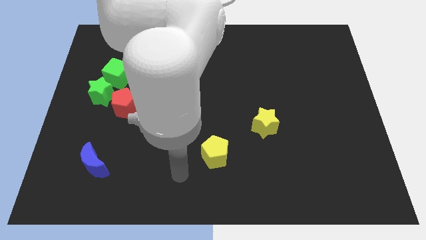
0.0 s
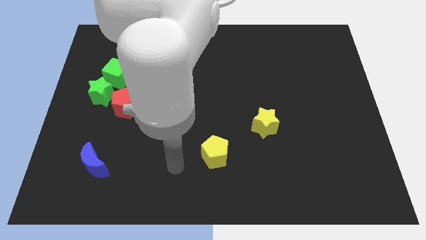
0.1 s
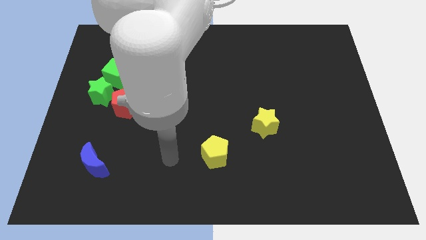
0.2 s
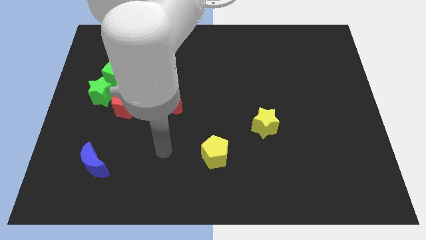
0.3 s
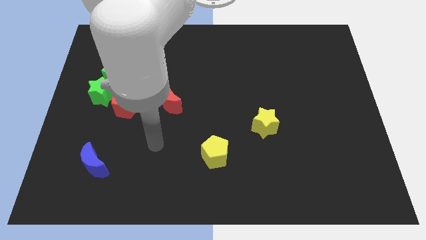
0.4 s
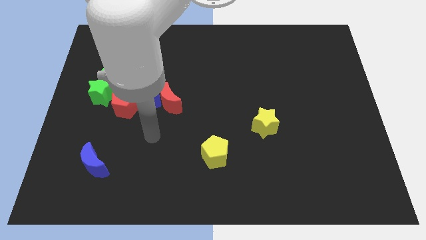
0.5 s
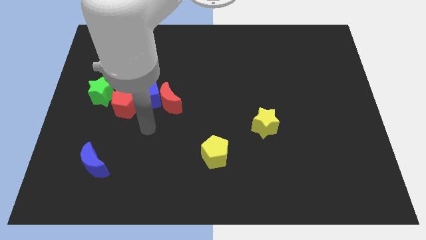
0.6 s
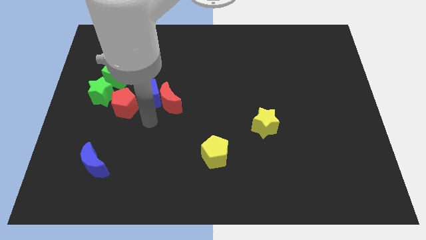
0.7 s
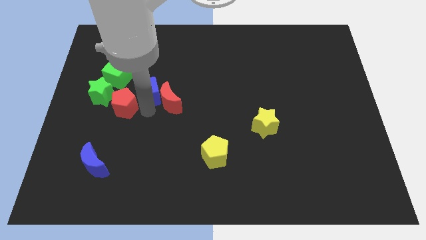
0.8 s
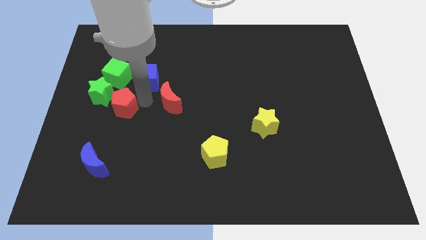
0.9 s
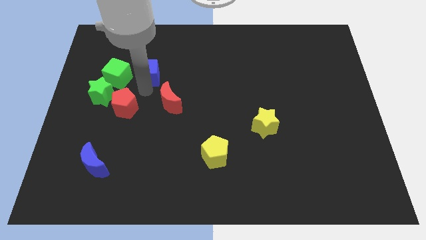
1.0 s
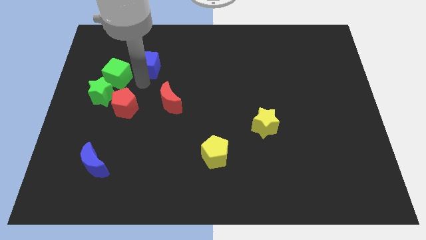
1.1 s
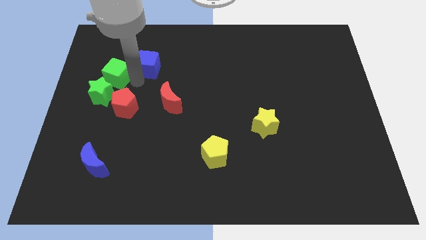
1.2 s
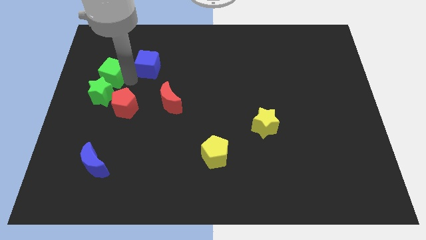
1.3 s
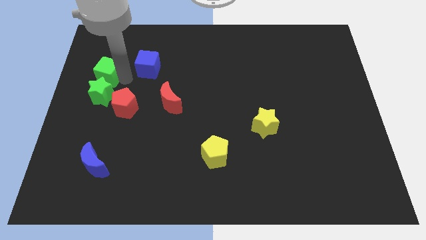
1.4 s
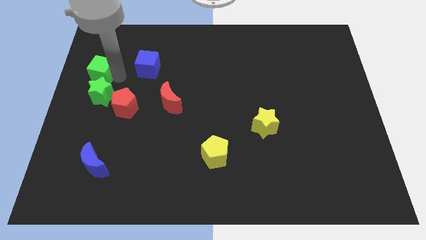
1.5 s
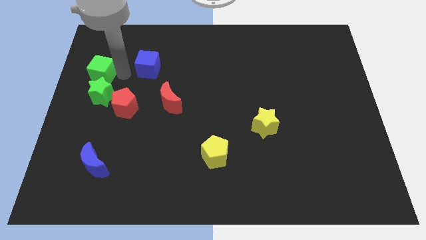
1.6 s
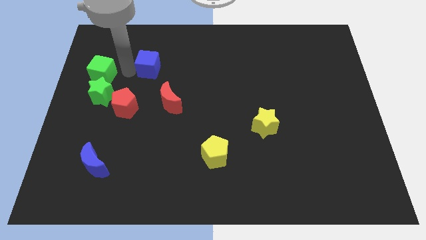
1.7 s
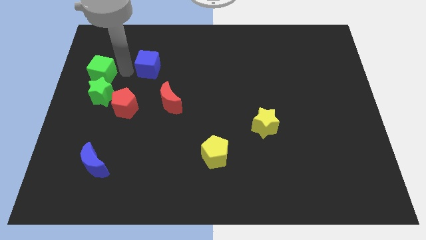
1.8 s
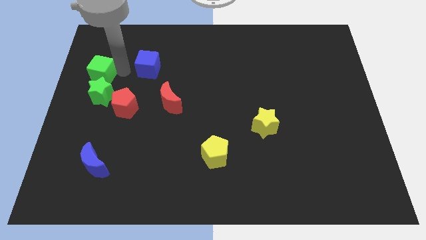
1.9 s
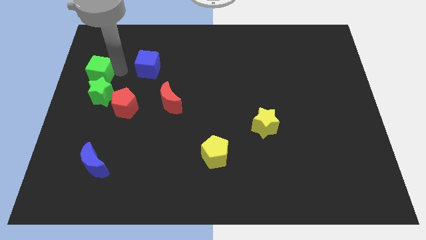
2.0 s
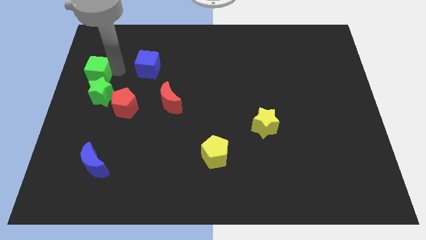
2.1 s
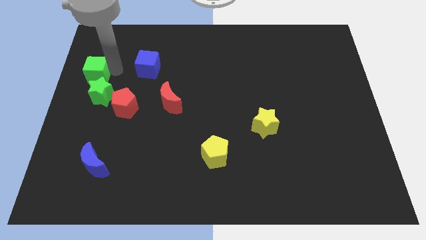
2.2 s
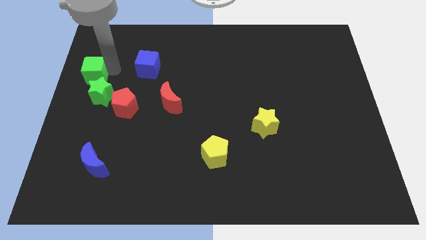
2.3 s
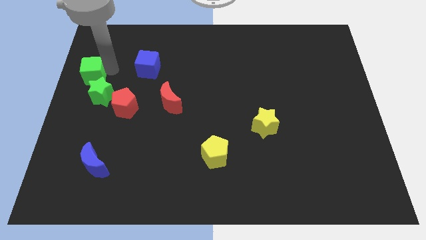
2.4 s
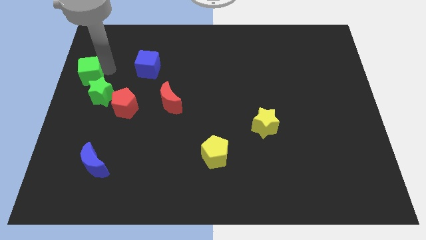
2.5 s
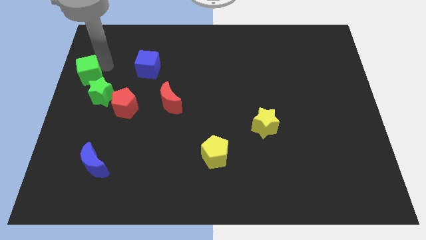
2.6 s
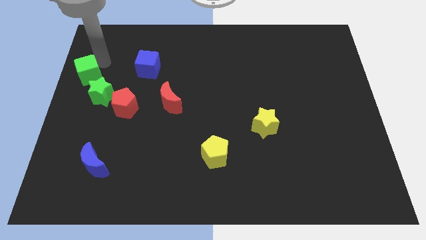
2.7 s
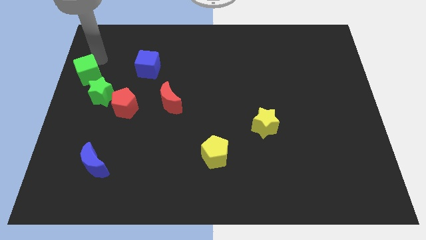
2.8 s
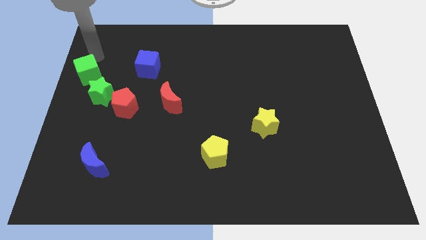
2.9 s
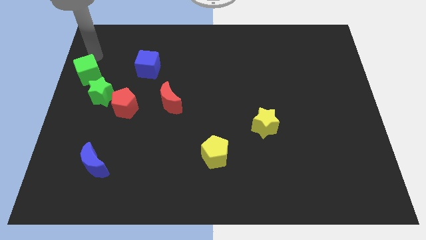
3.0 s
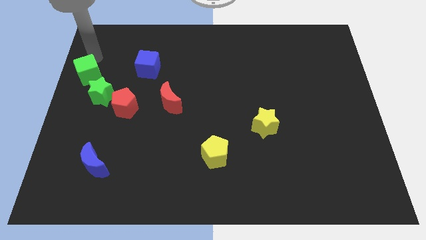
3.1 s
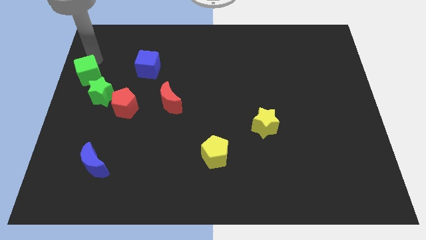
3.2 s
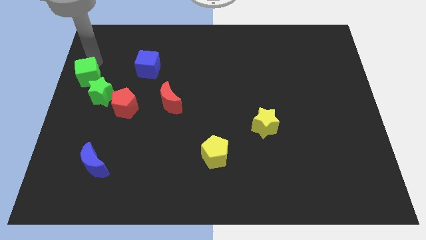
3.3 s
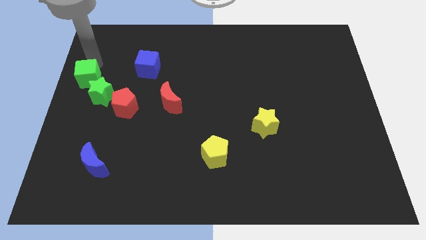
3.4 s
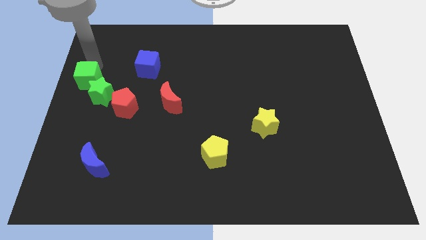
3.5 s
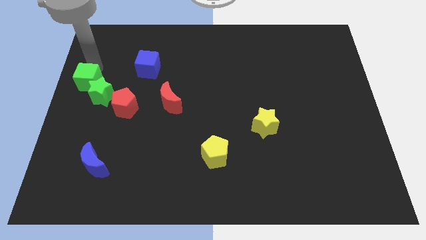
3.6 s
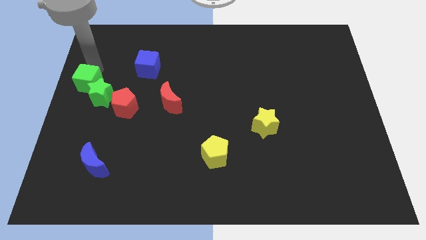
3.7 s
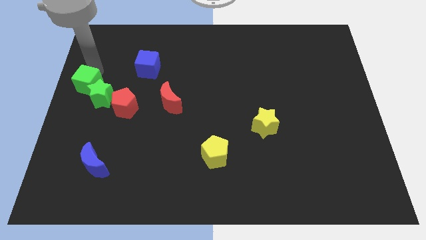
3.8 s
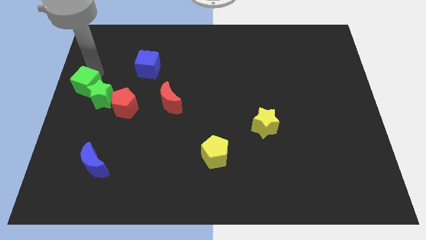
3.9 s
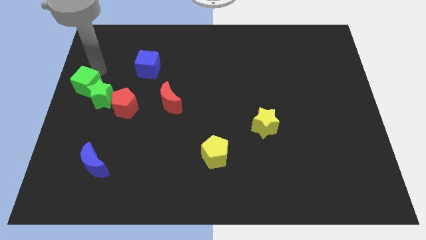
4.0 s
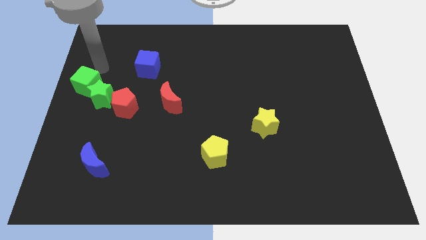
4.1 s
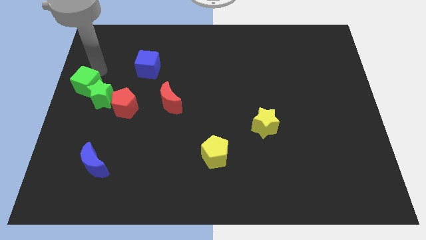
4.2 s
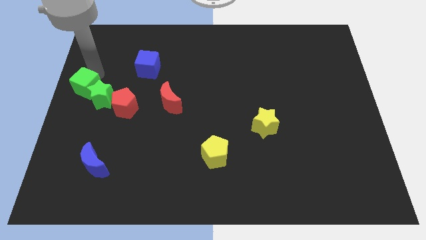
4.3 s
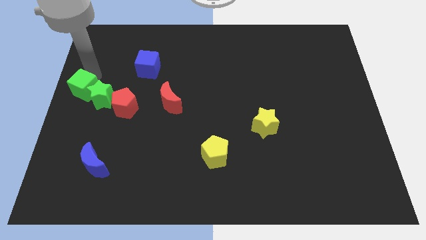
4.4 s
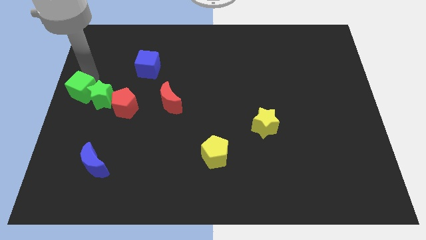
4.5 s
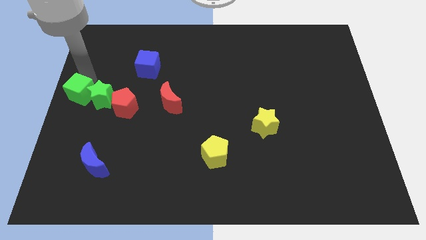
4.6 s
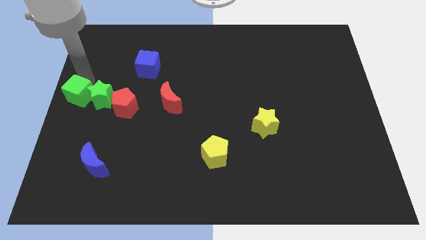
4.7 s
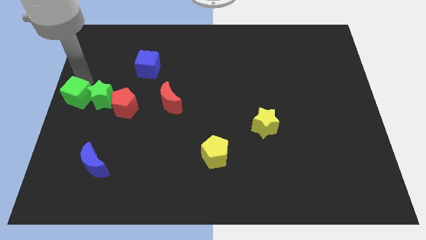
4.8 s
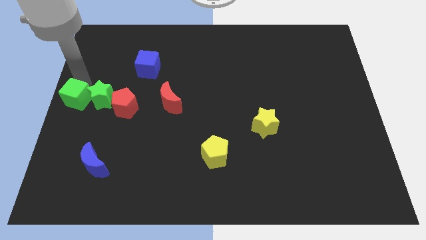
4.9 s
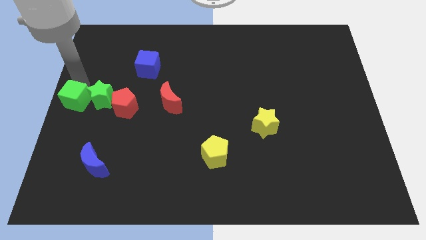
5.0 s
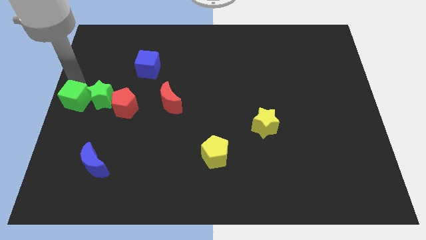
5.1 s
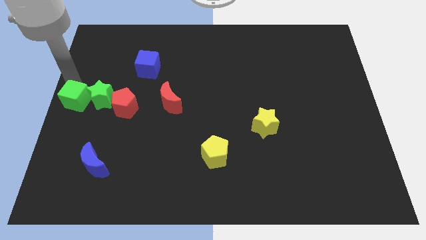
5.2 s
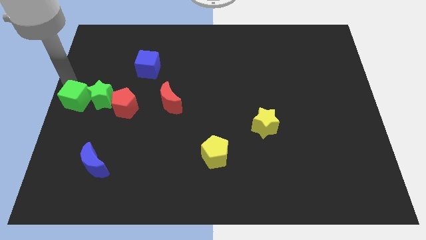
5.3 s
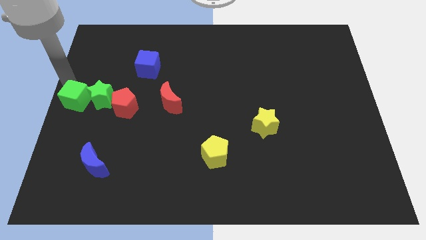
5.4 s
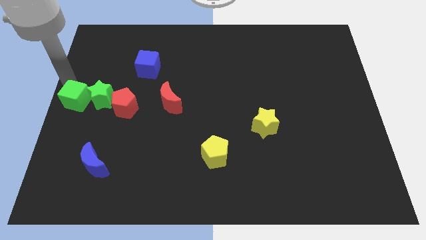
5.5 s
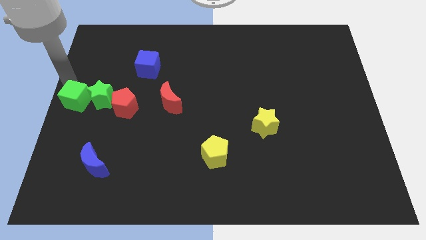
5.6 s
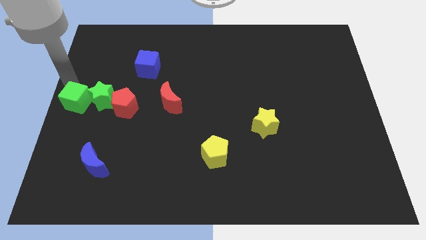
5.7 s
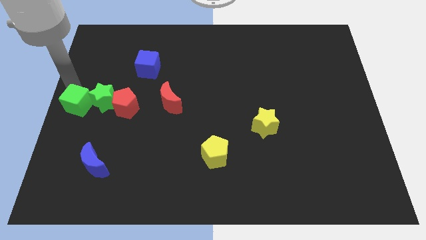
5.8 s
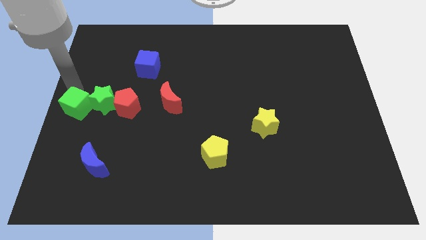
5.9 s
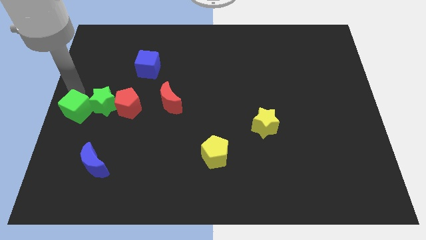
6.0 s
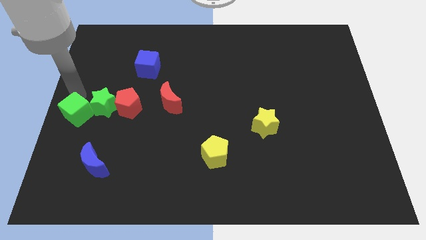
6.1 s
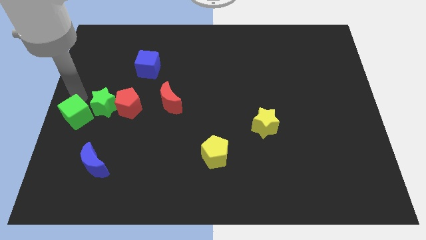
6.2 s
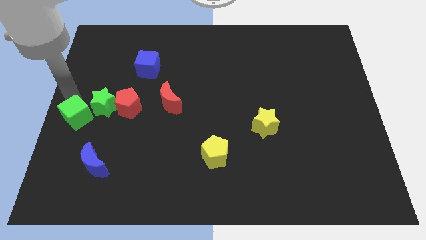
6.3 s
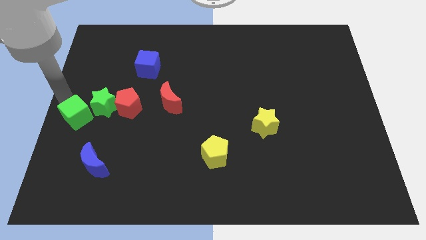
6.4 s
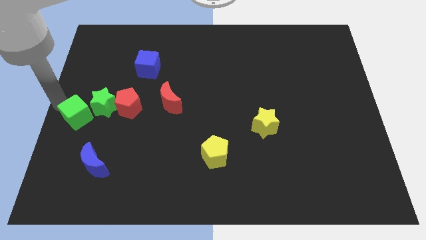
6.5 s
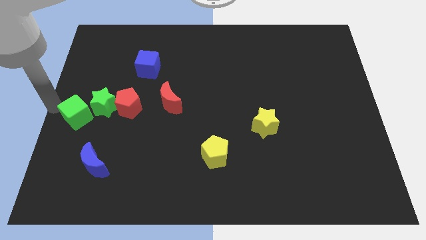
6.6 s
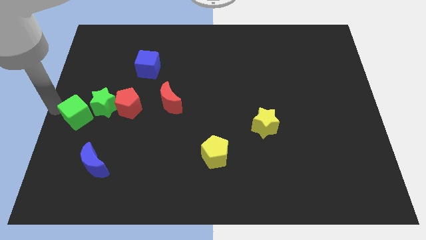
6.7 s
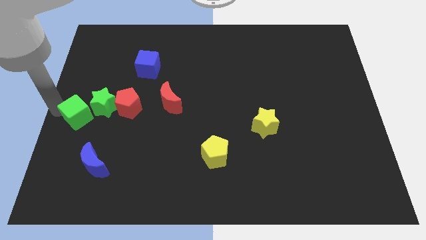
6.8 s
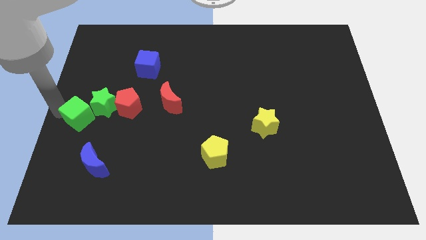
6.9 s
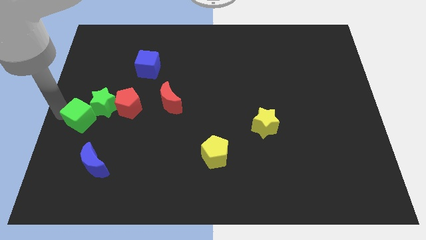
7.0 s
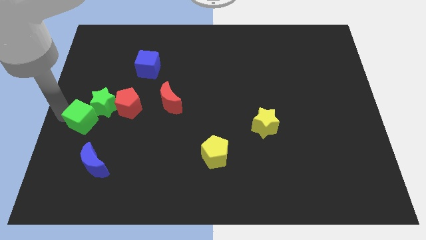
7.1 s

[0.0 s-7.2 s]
slide the green cube diagonally down and to the left of the red pentagon
